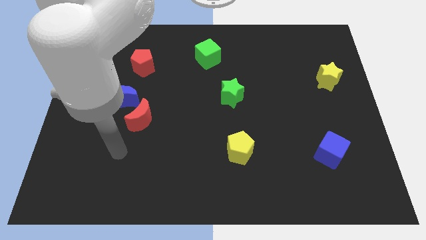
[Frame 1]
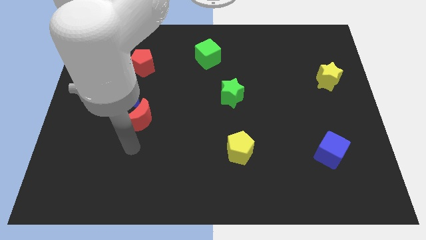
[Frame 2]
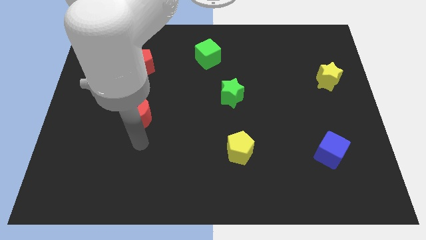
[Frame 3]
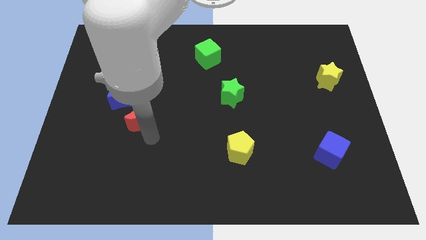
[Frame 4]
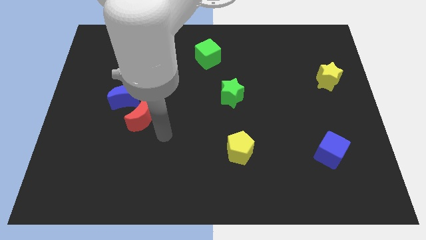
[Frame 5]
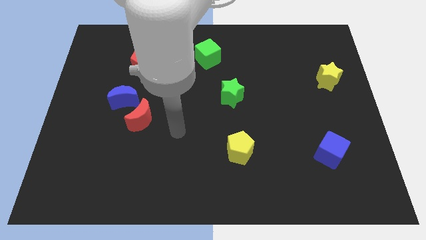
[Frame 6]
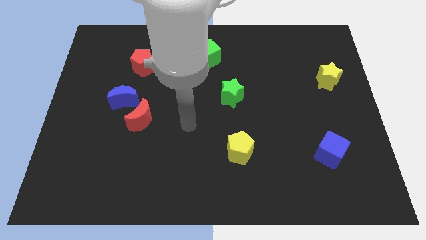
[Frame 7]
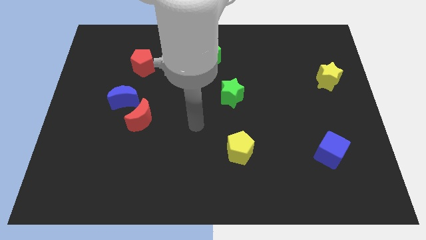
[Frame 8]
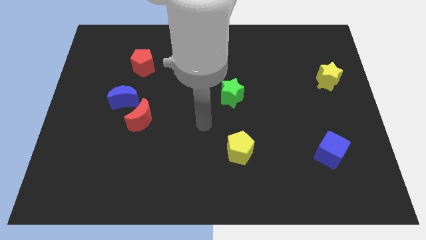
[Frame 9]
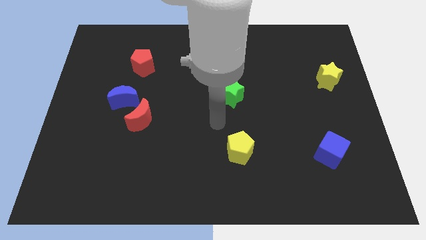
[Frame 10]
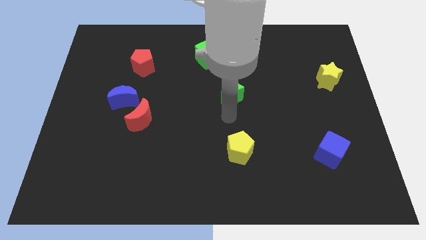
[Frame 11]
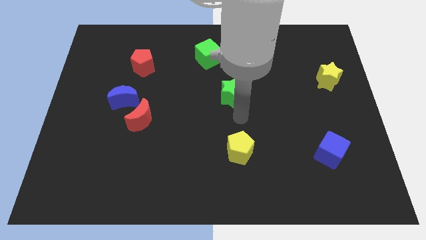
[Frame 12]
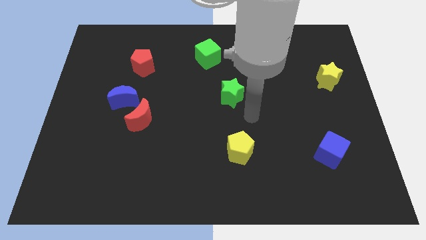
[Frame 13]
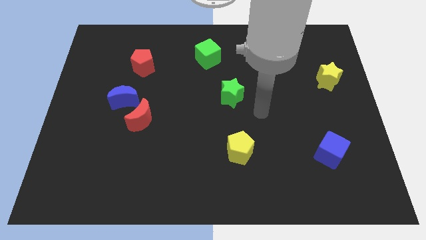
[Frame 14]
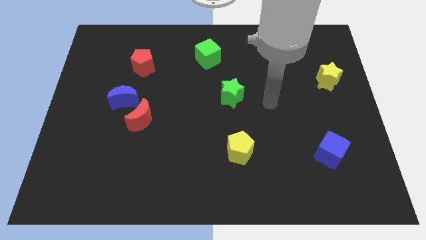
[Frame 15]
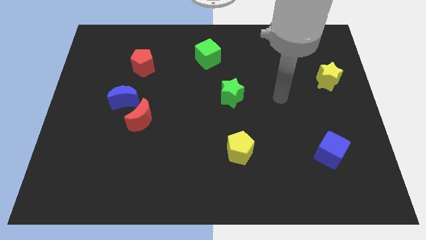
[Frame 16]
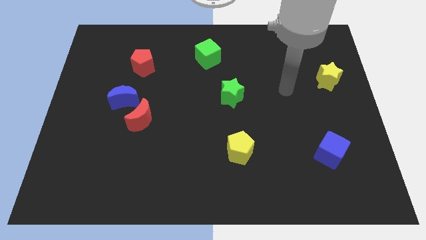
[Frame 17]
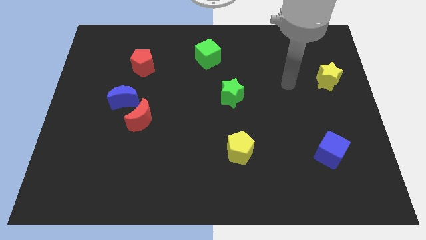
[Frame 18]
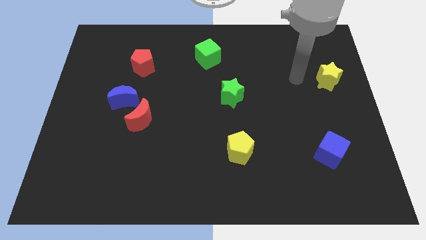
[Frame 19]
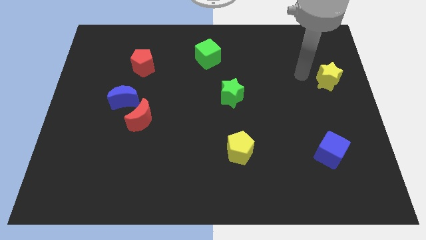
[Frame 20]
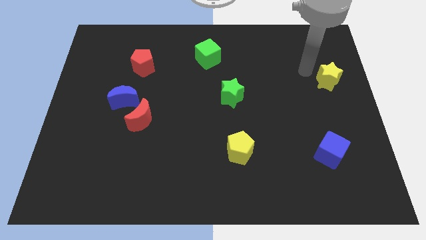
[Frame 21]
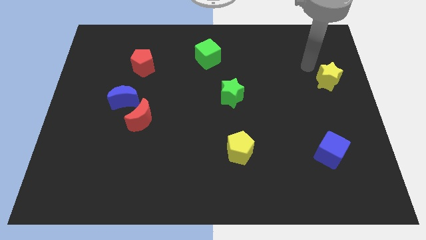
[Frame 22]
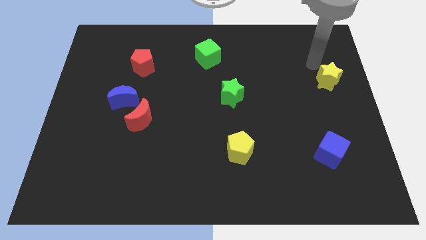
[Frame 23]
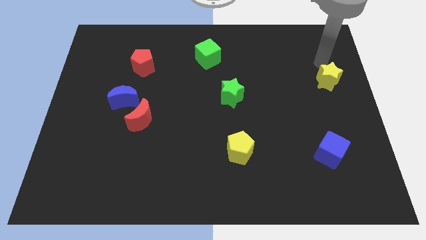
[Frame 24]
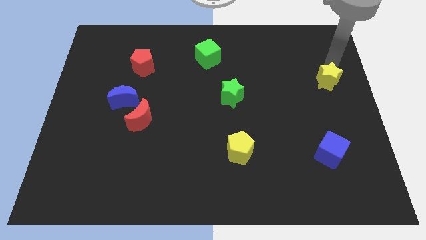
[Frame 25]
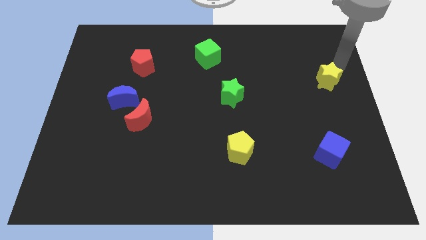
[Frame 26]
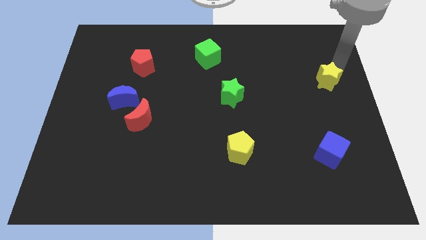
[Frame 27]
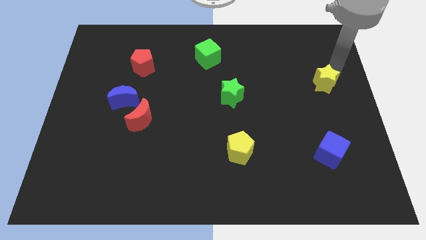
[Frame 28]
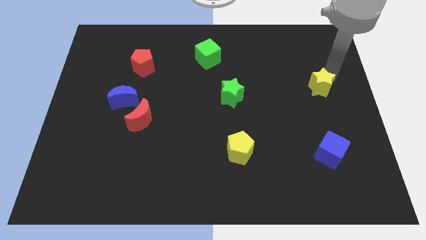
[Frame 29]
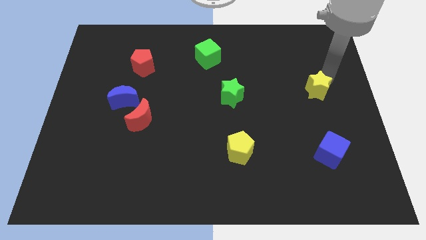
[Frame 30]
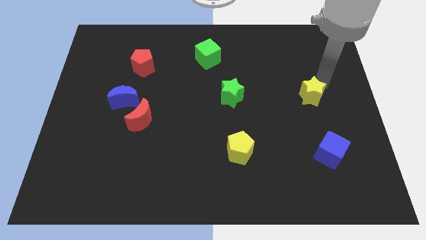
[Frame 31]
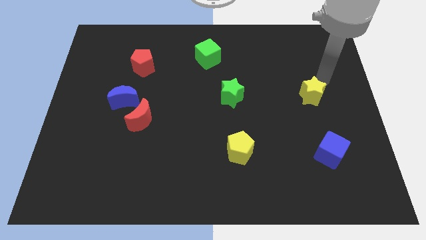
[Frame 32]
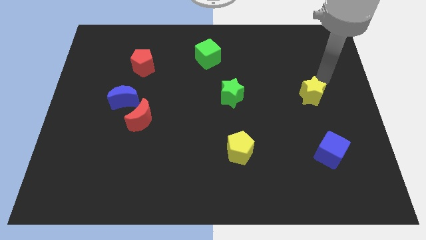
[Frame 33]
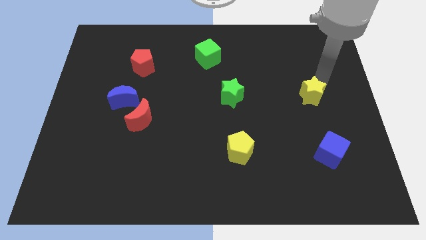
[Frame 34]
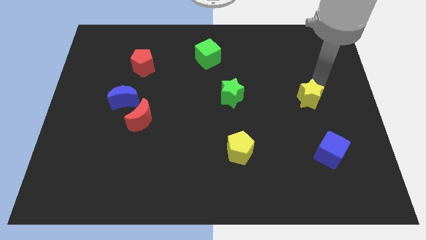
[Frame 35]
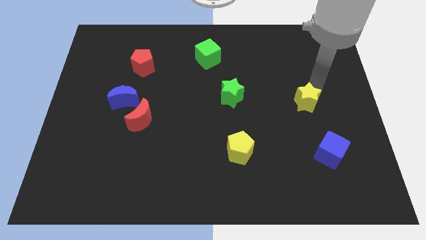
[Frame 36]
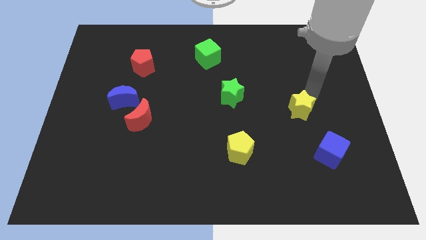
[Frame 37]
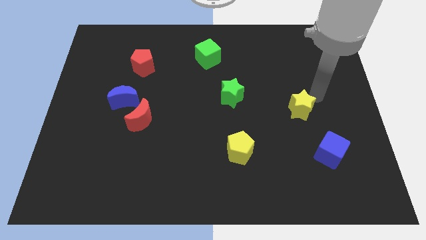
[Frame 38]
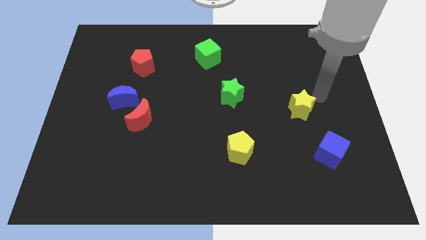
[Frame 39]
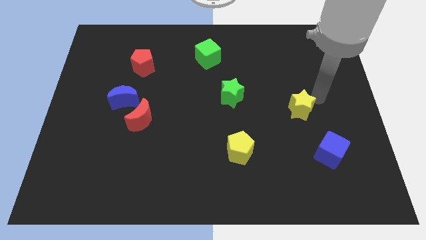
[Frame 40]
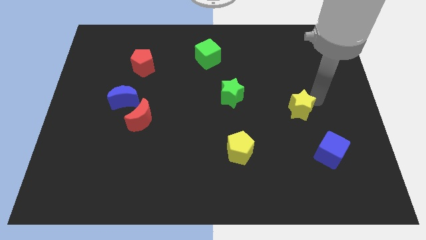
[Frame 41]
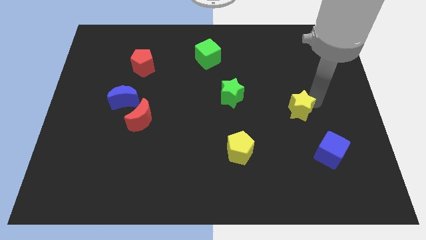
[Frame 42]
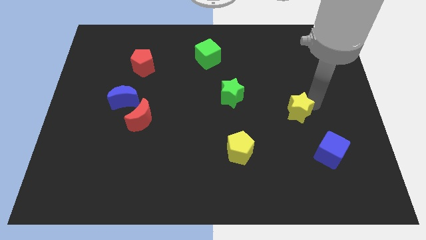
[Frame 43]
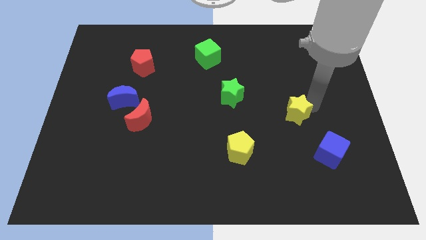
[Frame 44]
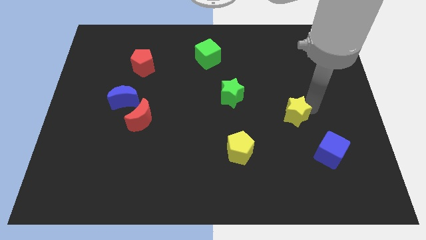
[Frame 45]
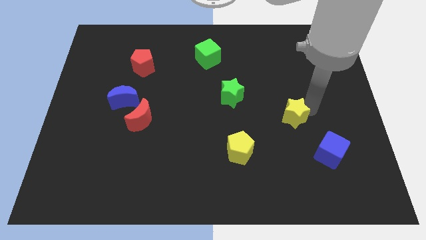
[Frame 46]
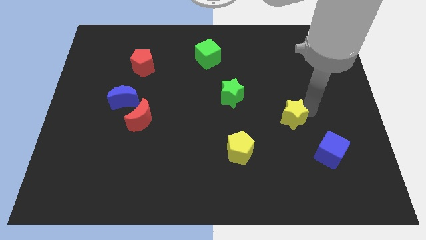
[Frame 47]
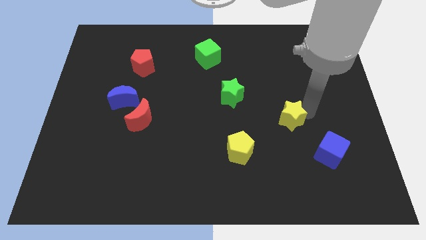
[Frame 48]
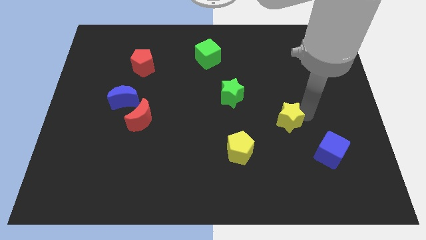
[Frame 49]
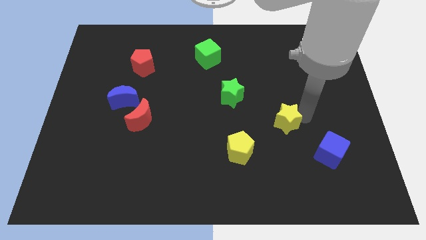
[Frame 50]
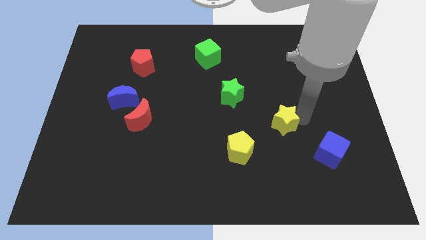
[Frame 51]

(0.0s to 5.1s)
slide the yellow star to the top right side of the yellow pentagon

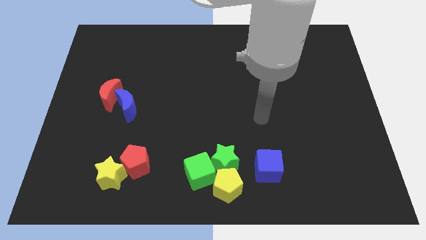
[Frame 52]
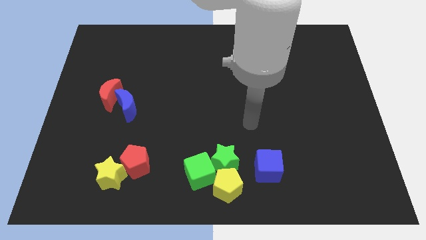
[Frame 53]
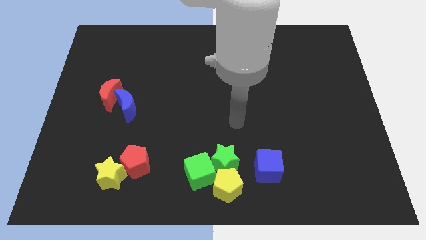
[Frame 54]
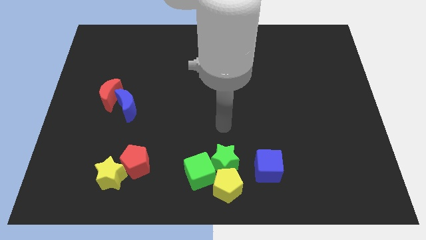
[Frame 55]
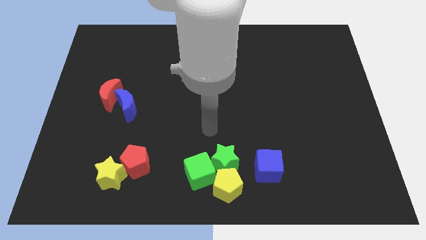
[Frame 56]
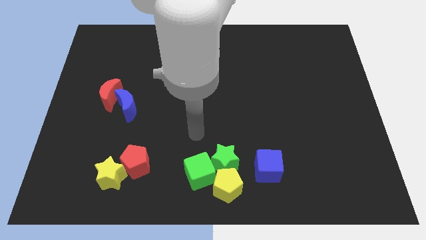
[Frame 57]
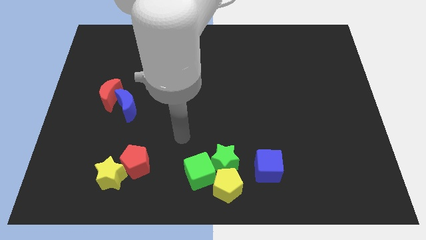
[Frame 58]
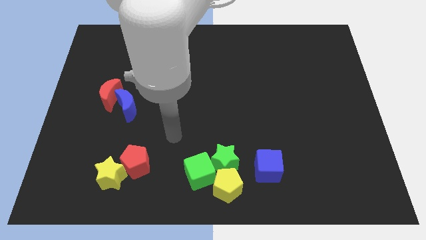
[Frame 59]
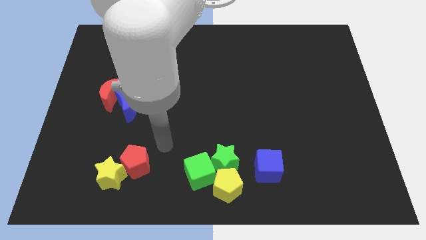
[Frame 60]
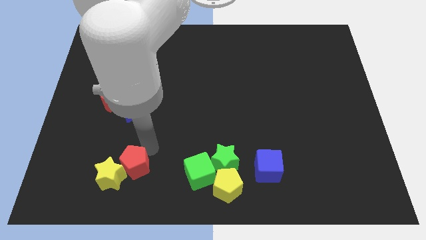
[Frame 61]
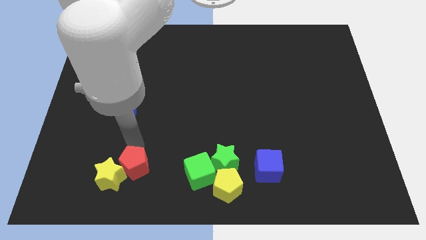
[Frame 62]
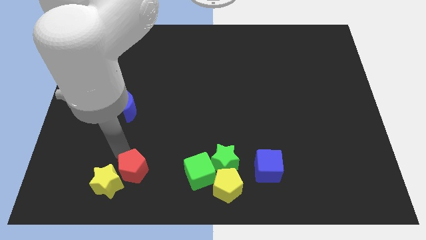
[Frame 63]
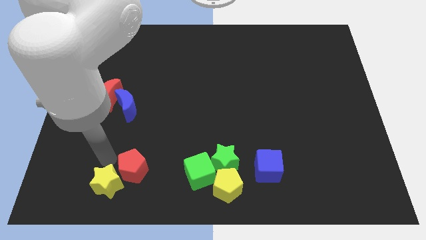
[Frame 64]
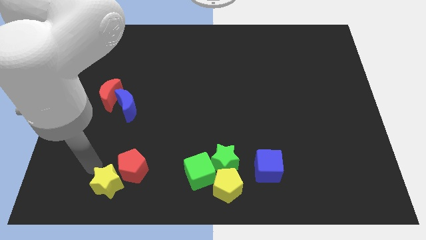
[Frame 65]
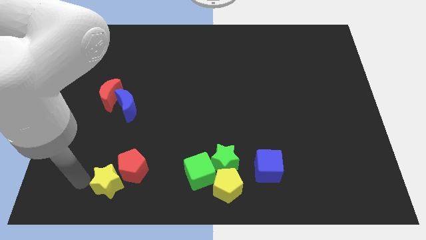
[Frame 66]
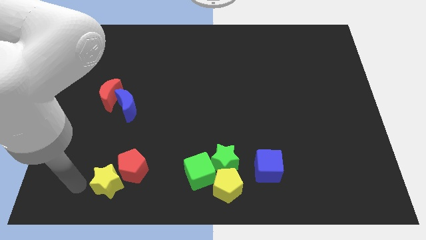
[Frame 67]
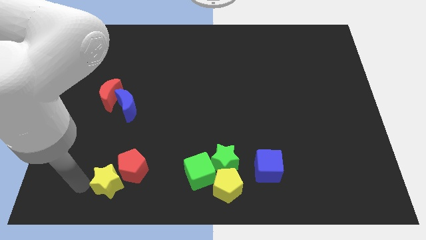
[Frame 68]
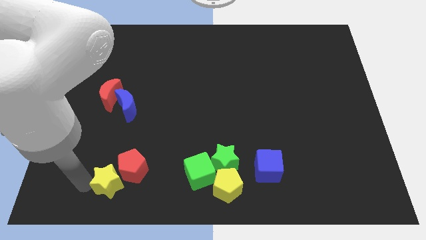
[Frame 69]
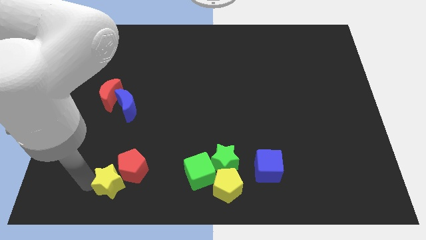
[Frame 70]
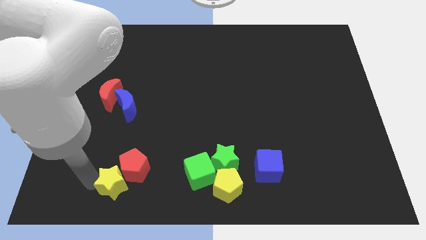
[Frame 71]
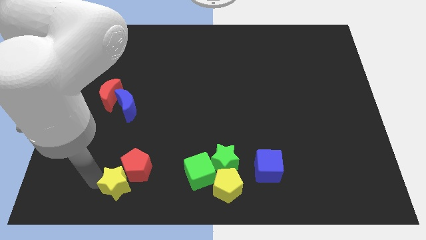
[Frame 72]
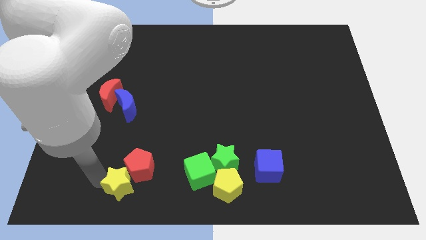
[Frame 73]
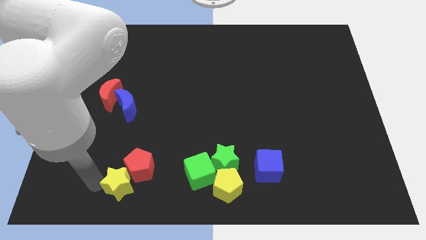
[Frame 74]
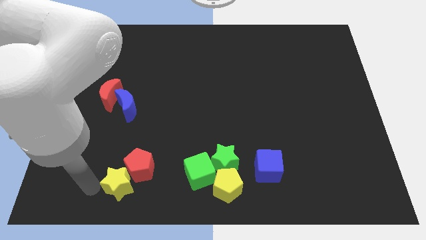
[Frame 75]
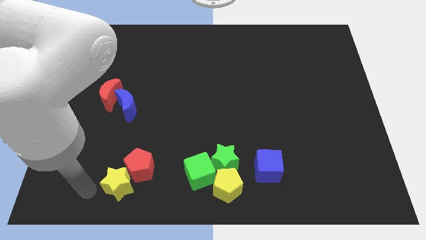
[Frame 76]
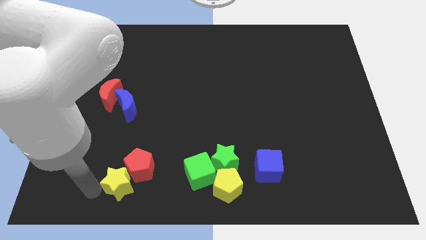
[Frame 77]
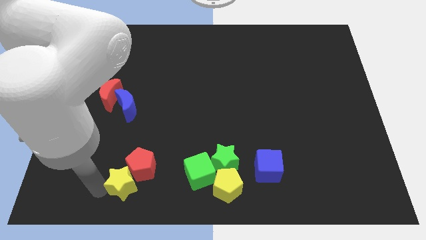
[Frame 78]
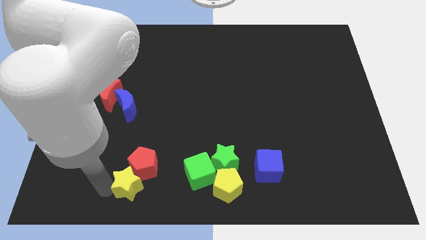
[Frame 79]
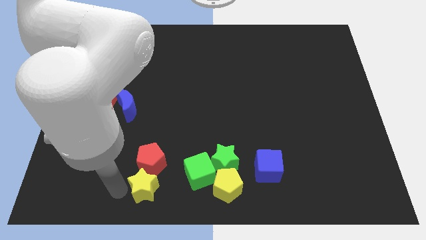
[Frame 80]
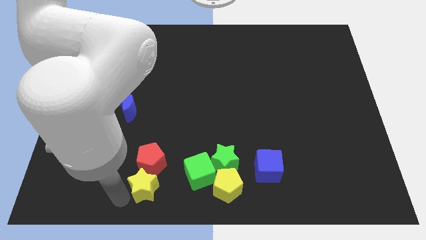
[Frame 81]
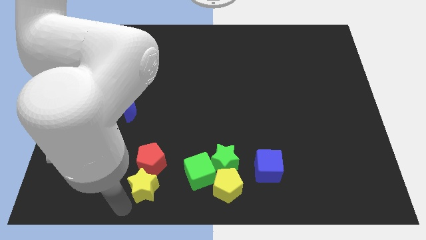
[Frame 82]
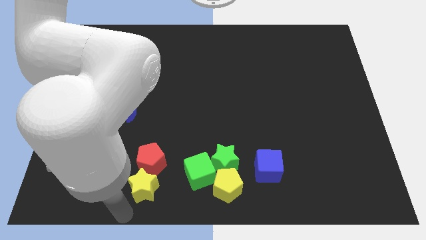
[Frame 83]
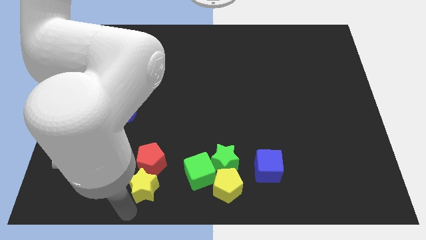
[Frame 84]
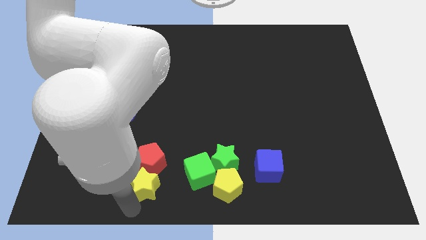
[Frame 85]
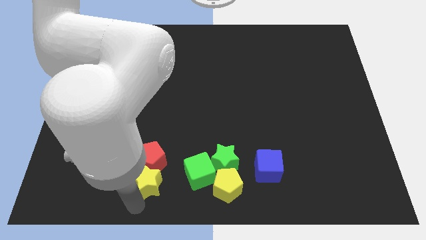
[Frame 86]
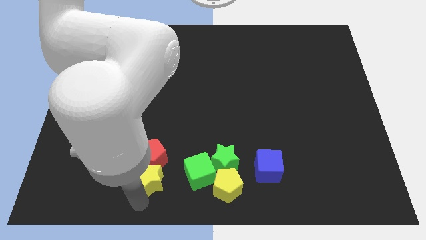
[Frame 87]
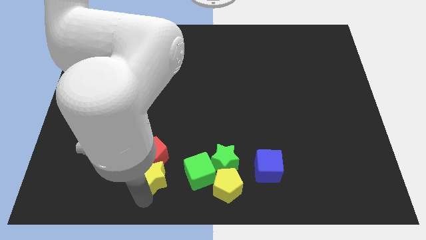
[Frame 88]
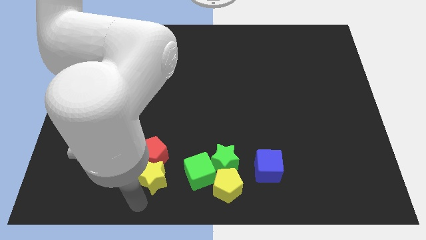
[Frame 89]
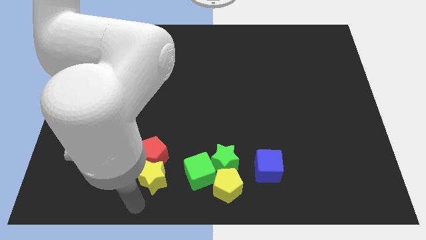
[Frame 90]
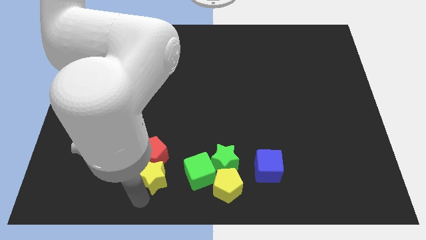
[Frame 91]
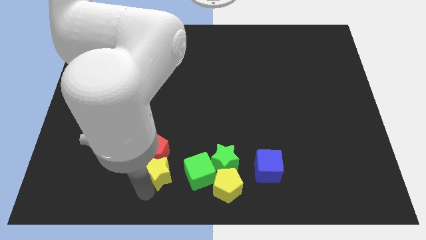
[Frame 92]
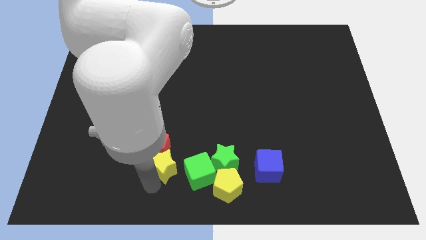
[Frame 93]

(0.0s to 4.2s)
push the yellow star to the top left of the green cube
